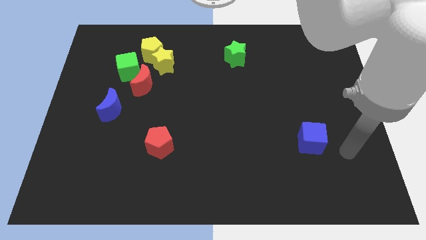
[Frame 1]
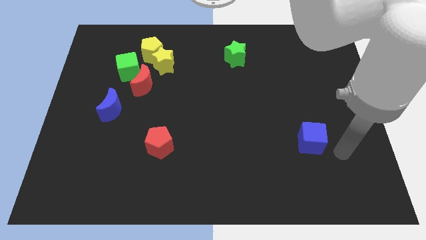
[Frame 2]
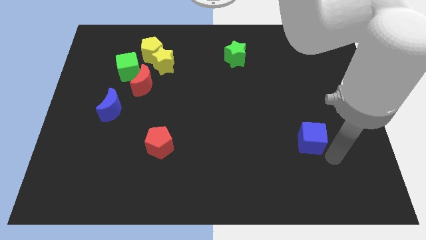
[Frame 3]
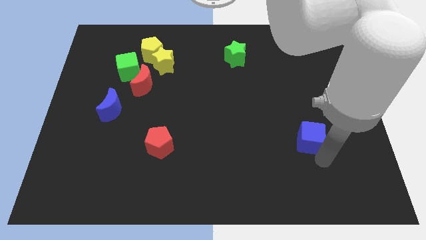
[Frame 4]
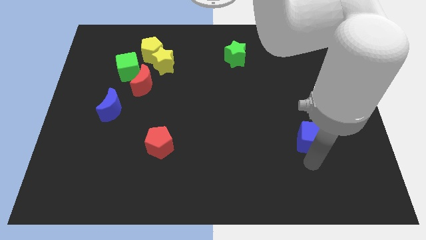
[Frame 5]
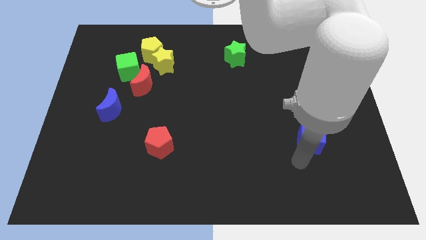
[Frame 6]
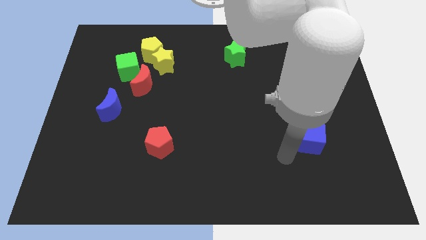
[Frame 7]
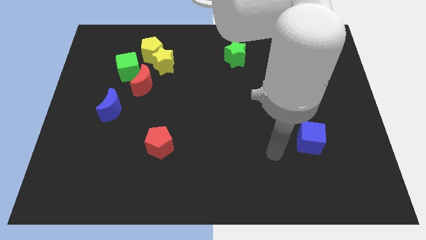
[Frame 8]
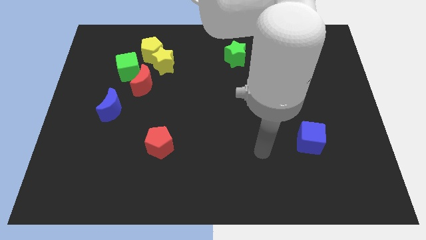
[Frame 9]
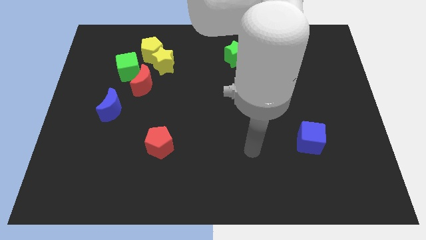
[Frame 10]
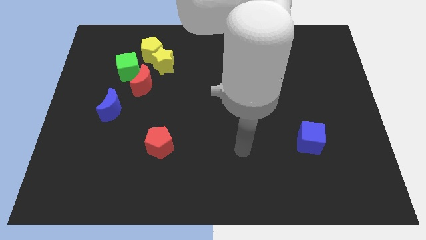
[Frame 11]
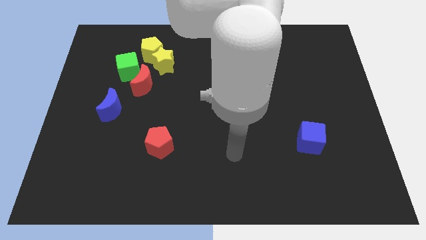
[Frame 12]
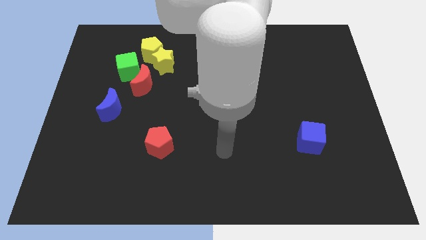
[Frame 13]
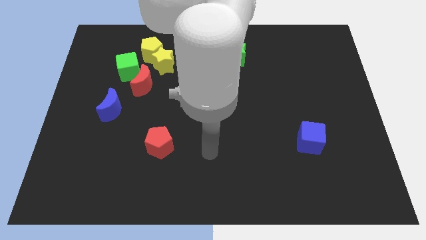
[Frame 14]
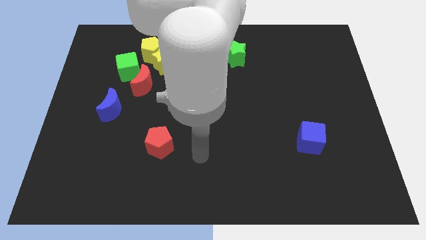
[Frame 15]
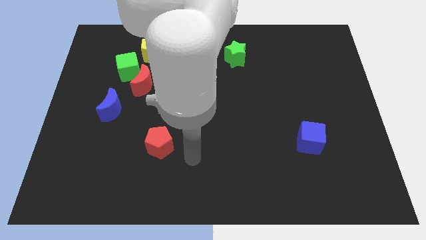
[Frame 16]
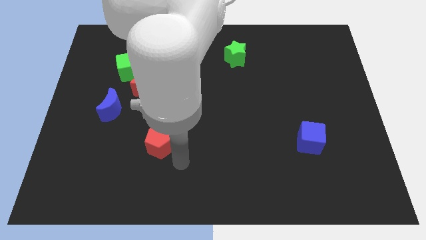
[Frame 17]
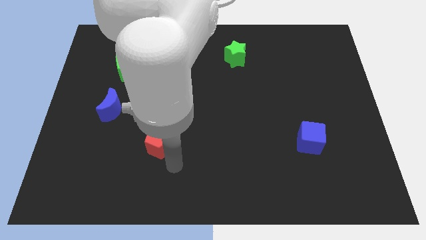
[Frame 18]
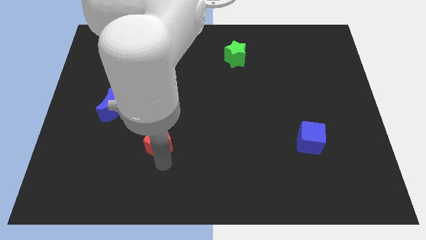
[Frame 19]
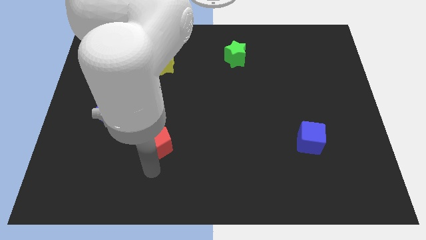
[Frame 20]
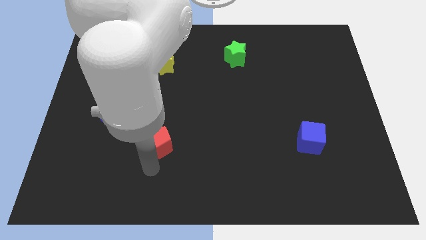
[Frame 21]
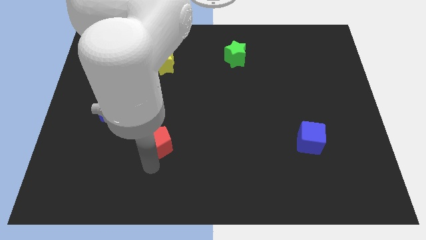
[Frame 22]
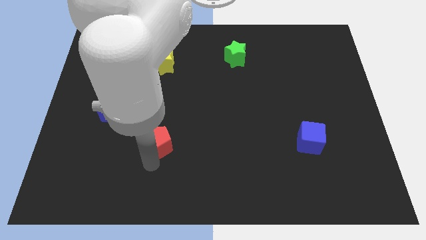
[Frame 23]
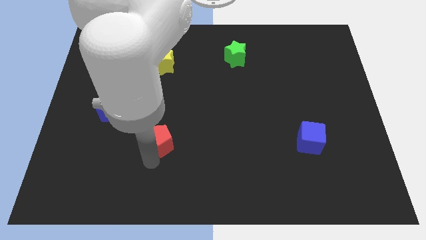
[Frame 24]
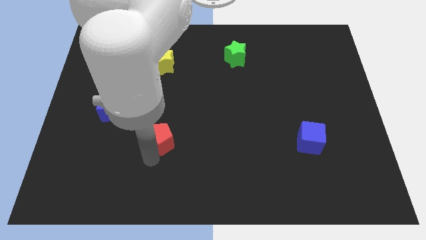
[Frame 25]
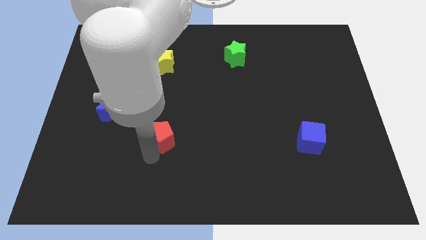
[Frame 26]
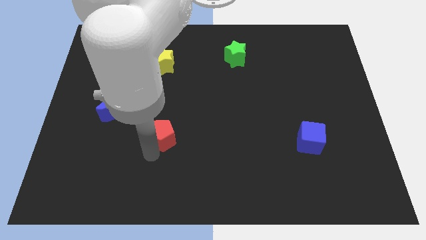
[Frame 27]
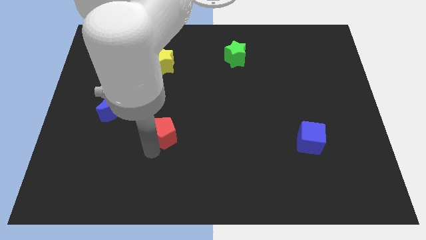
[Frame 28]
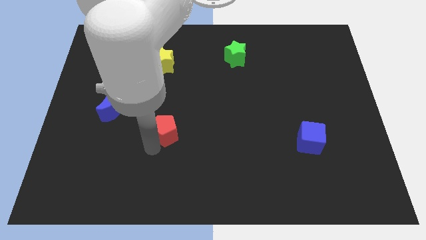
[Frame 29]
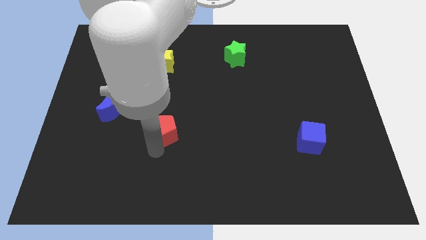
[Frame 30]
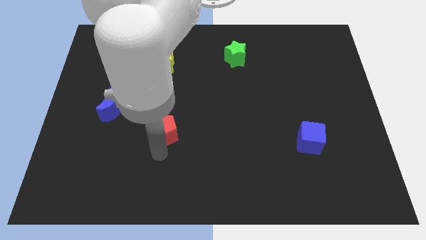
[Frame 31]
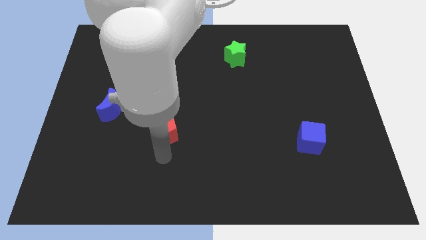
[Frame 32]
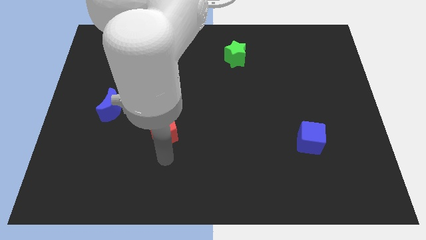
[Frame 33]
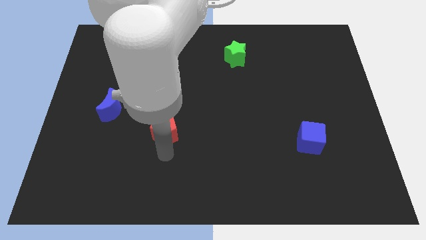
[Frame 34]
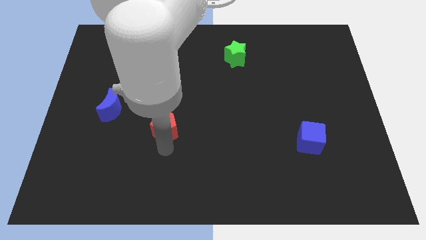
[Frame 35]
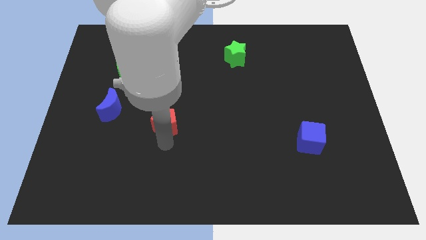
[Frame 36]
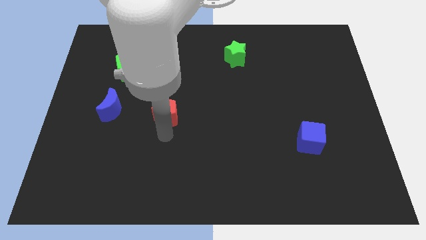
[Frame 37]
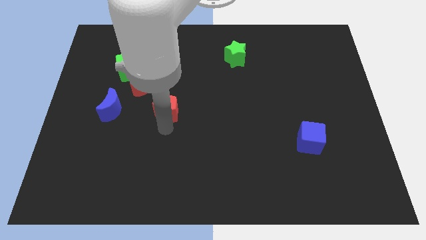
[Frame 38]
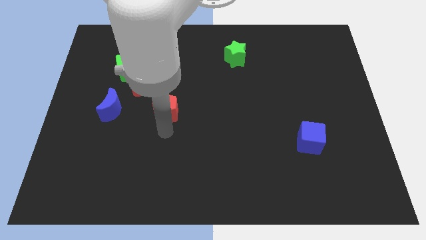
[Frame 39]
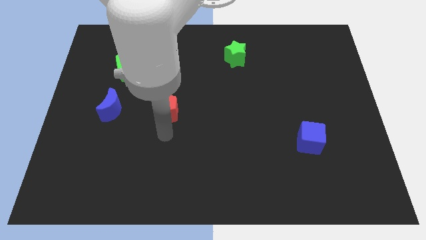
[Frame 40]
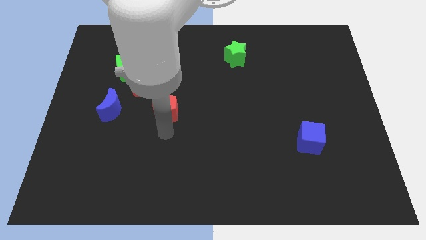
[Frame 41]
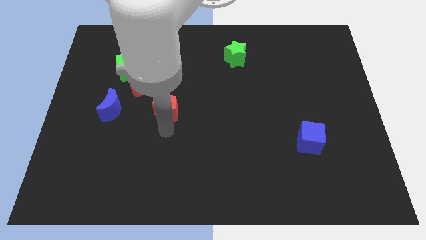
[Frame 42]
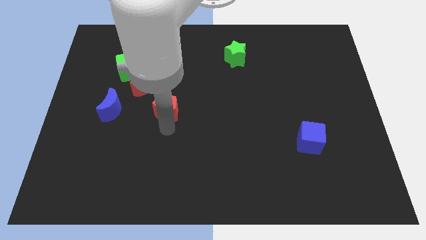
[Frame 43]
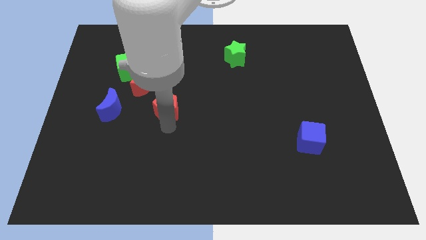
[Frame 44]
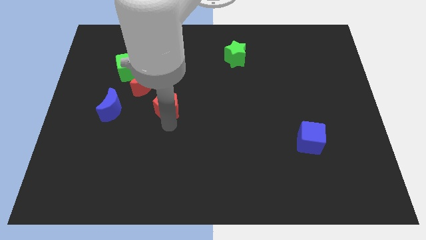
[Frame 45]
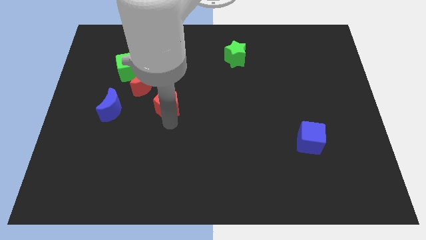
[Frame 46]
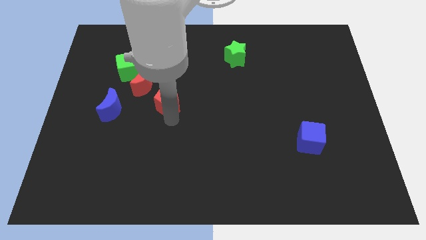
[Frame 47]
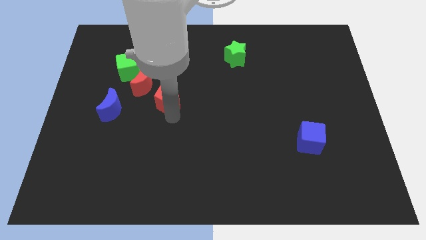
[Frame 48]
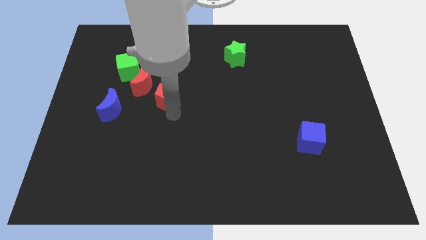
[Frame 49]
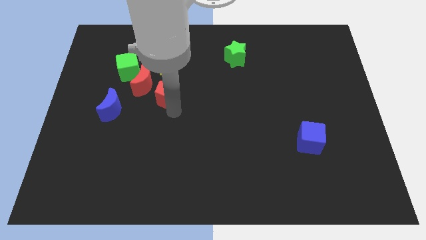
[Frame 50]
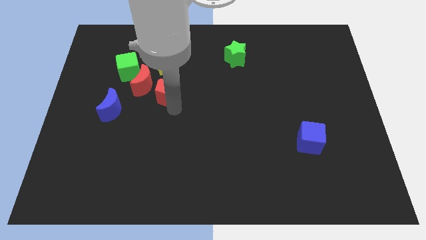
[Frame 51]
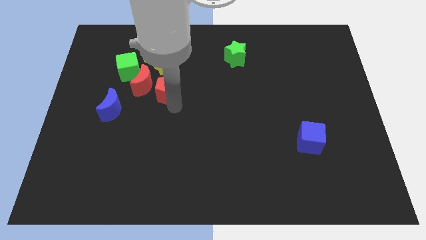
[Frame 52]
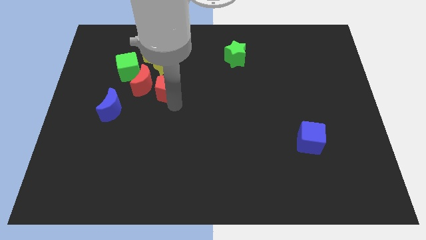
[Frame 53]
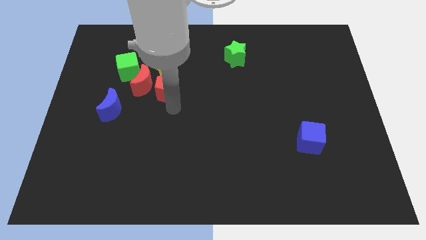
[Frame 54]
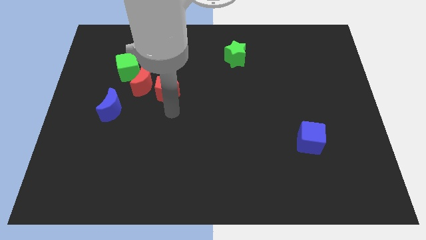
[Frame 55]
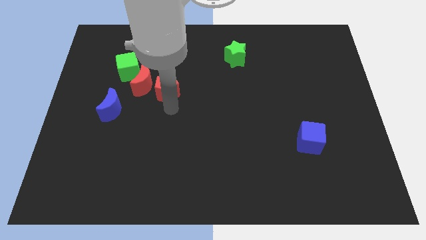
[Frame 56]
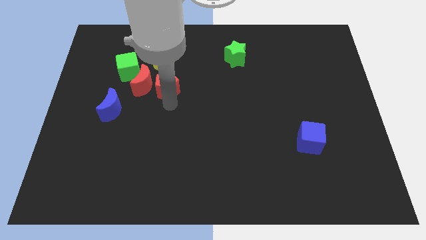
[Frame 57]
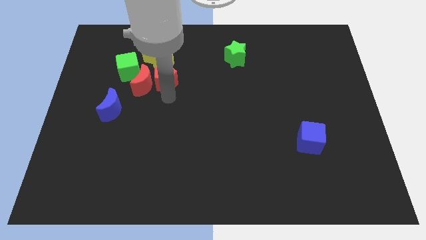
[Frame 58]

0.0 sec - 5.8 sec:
slide the red pentagon close to the yellow star
